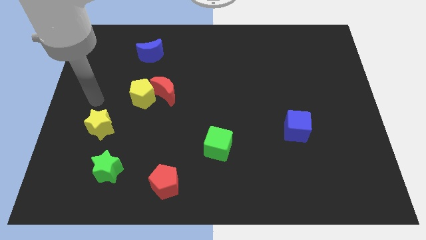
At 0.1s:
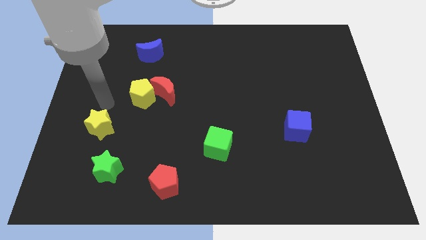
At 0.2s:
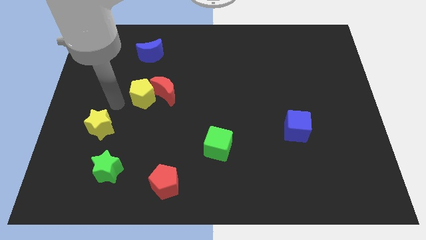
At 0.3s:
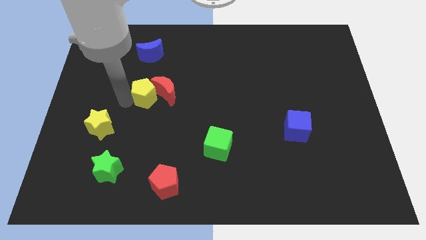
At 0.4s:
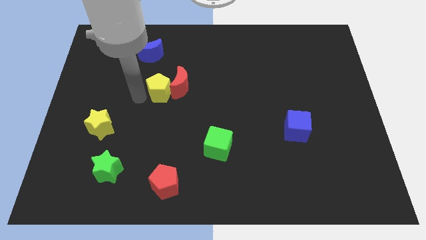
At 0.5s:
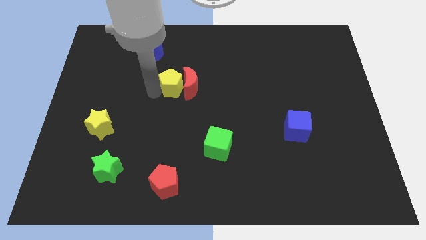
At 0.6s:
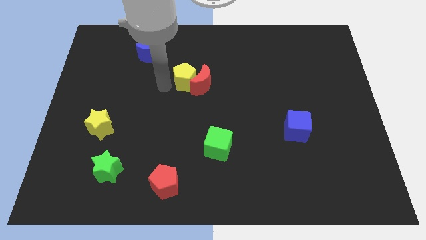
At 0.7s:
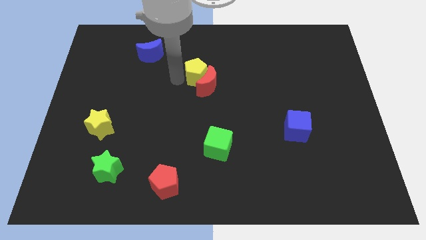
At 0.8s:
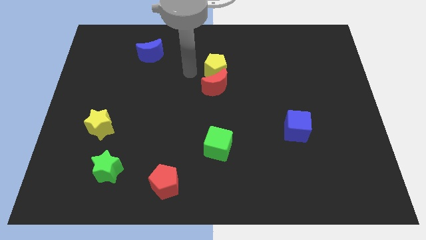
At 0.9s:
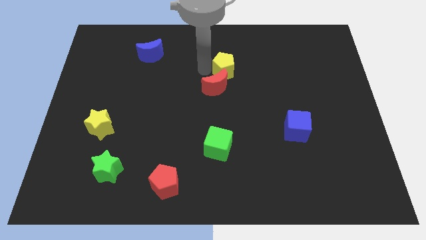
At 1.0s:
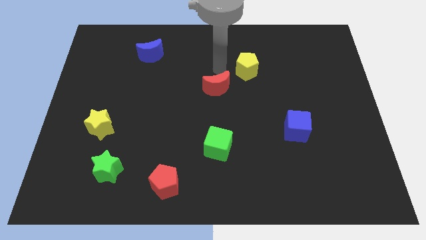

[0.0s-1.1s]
pull the red moon apart from the yellow pentagon

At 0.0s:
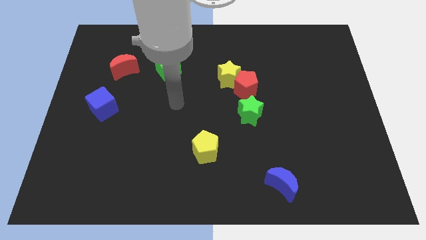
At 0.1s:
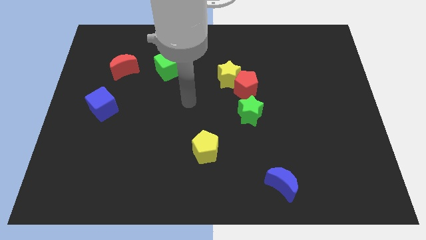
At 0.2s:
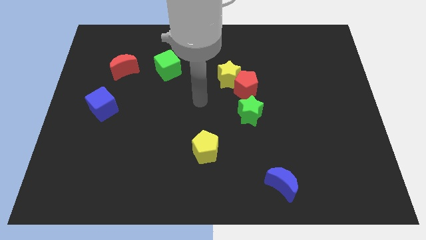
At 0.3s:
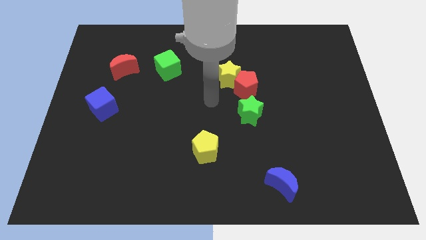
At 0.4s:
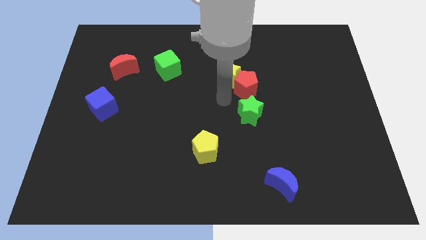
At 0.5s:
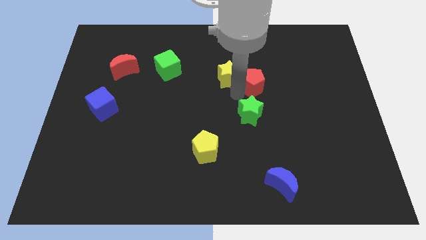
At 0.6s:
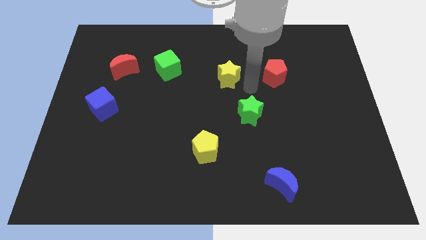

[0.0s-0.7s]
separate the yellow star from the red pentagon

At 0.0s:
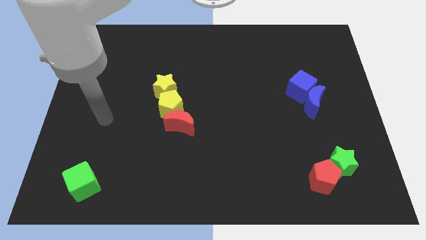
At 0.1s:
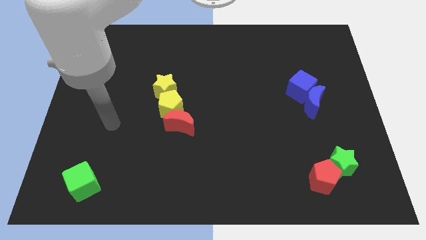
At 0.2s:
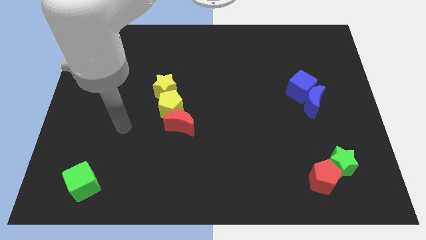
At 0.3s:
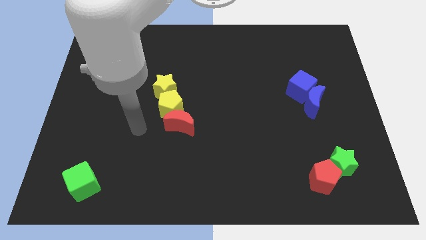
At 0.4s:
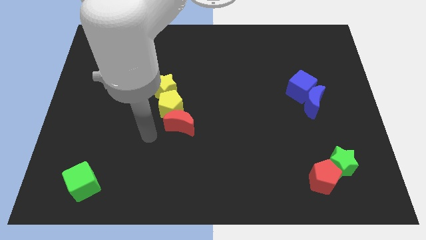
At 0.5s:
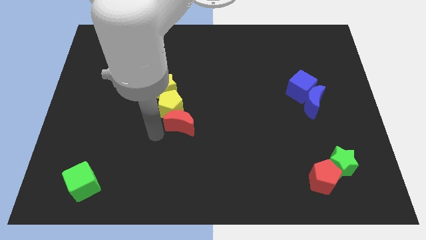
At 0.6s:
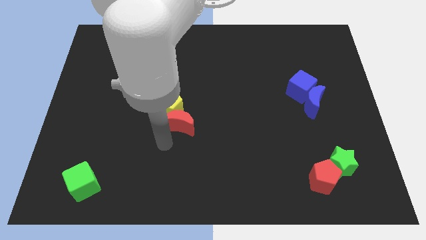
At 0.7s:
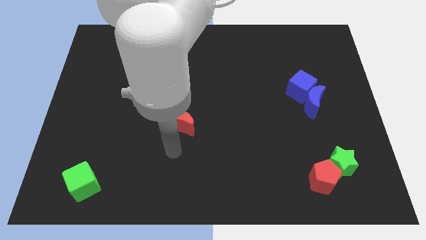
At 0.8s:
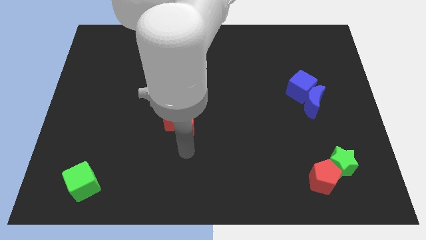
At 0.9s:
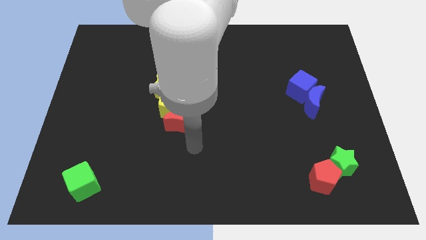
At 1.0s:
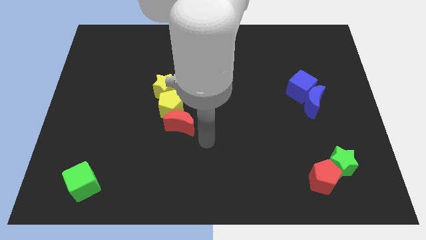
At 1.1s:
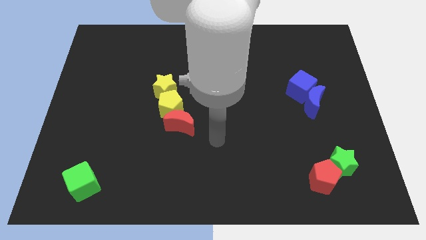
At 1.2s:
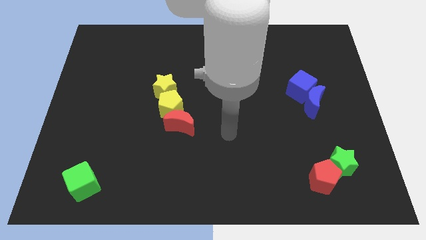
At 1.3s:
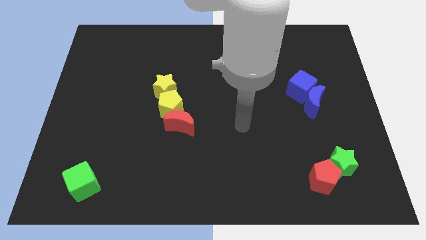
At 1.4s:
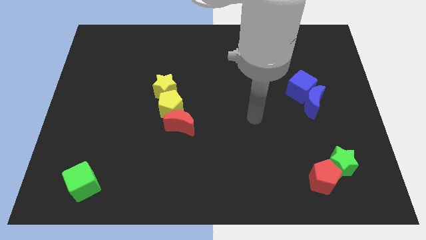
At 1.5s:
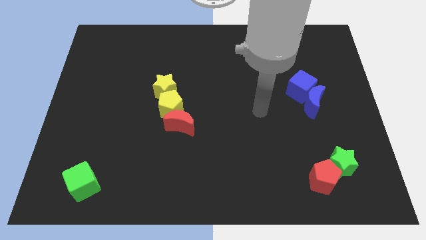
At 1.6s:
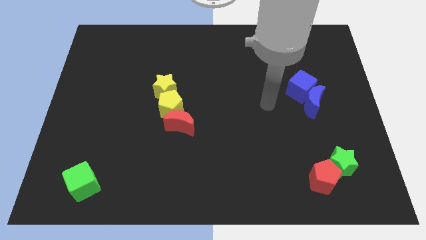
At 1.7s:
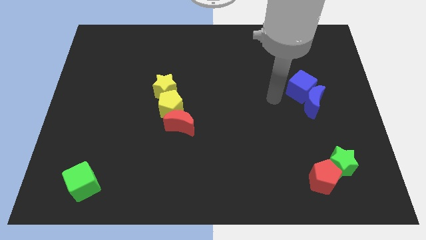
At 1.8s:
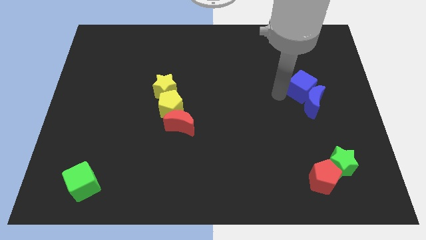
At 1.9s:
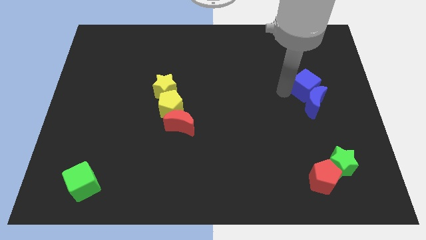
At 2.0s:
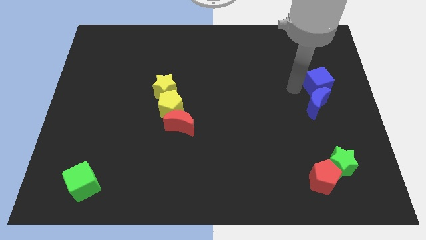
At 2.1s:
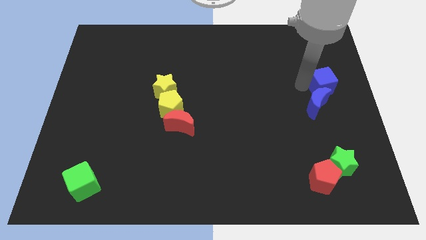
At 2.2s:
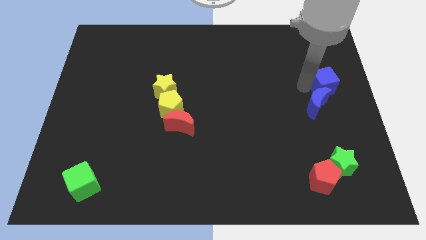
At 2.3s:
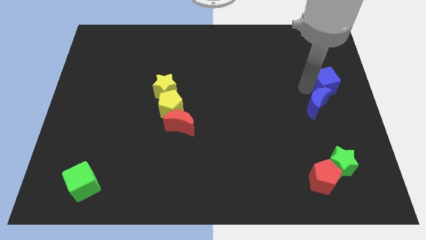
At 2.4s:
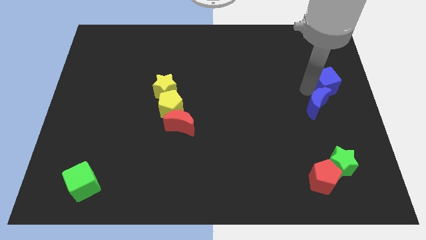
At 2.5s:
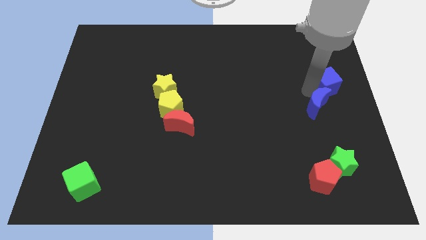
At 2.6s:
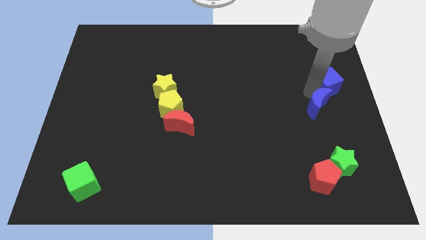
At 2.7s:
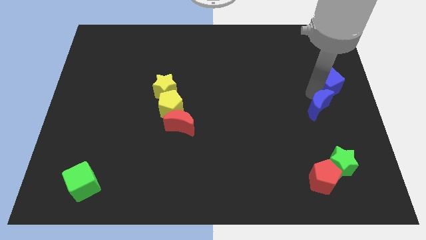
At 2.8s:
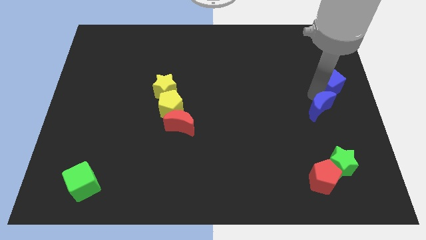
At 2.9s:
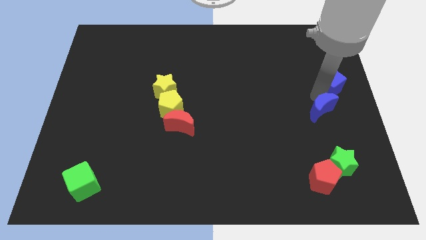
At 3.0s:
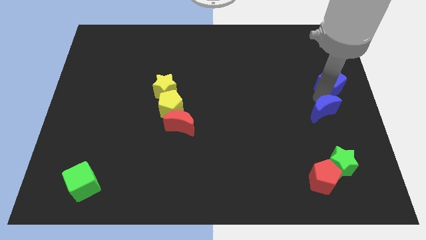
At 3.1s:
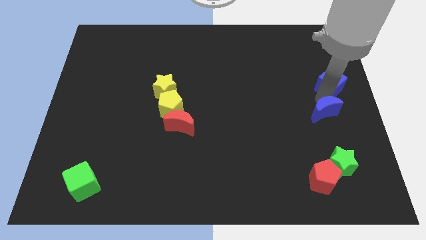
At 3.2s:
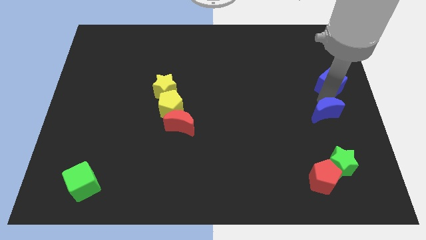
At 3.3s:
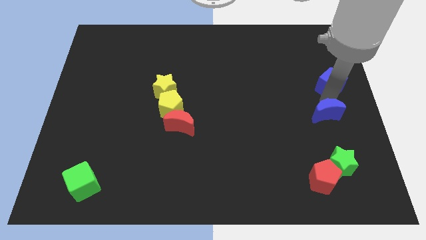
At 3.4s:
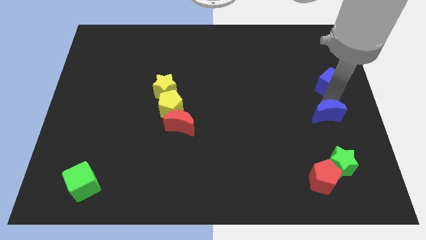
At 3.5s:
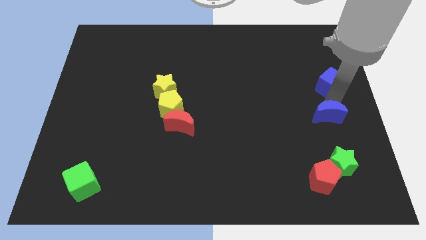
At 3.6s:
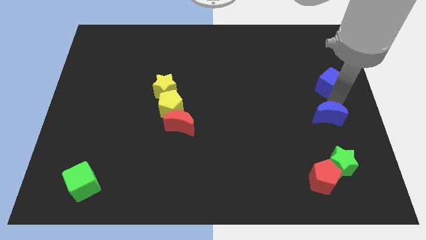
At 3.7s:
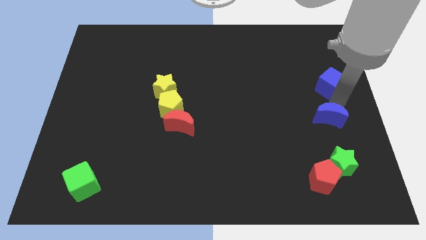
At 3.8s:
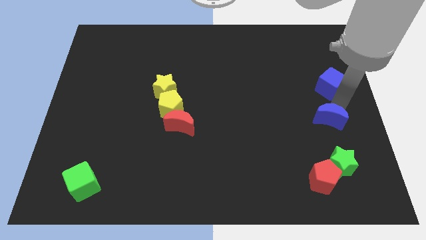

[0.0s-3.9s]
pull the blue moon apart from the blue cube

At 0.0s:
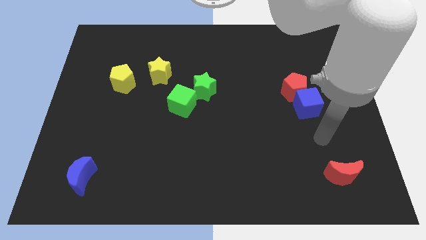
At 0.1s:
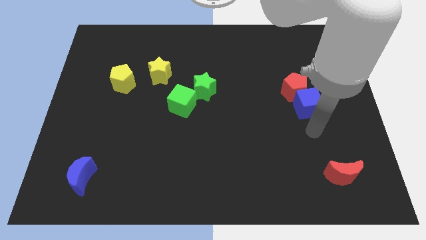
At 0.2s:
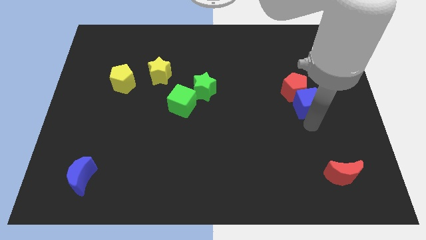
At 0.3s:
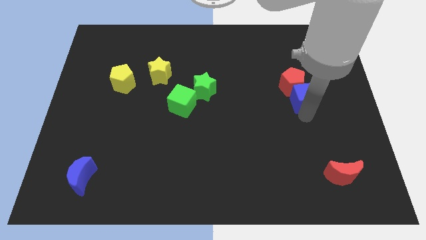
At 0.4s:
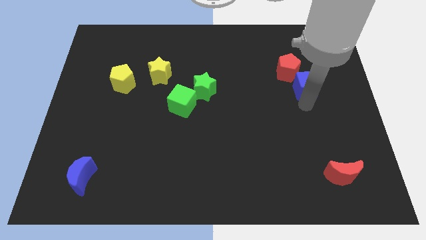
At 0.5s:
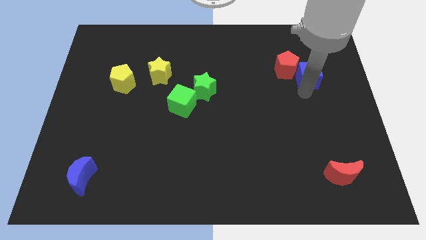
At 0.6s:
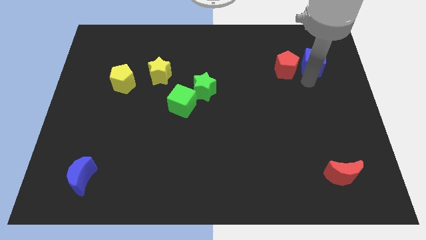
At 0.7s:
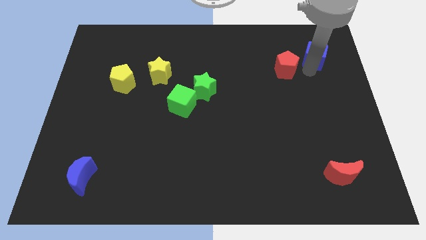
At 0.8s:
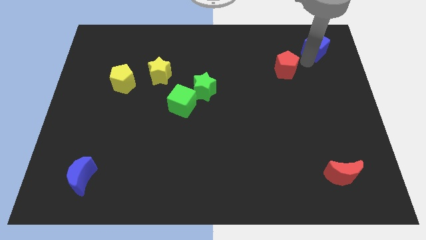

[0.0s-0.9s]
separate the red pentagon from the blue cube

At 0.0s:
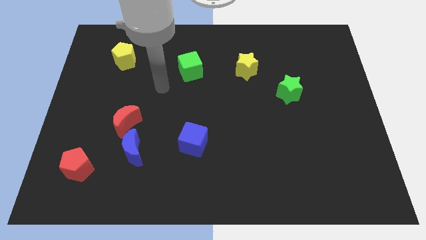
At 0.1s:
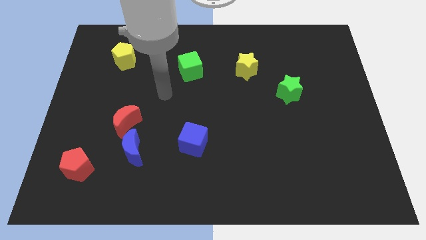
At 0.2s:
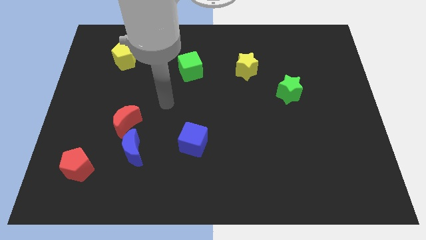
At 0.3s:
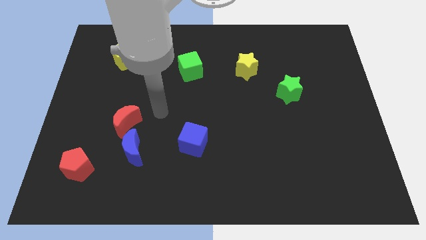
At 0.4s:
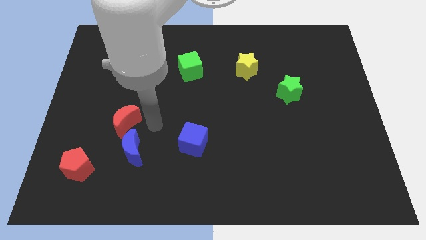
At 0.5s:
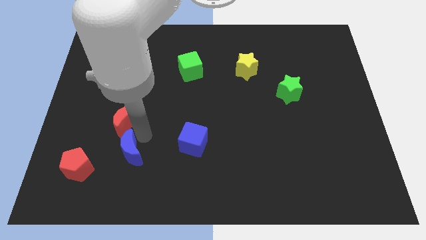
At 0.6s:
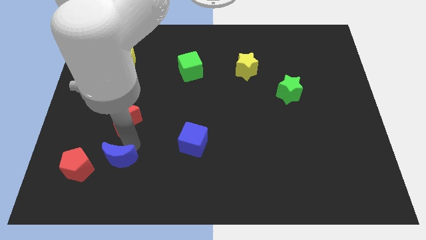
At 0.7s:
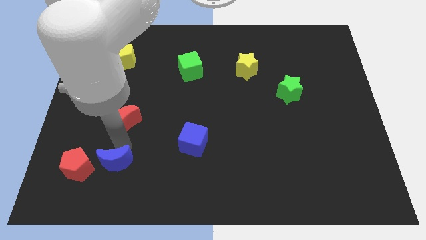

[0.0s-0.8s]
move the red moon away from the blue moon

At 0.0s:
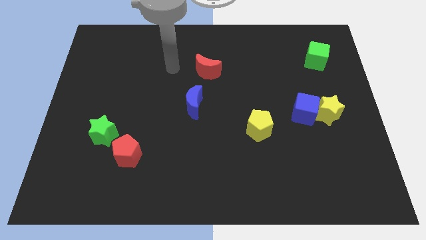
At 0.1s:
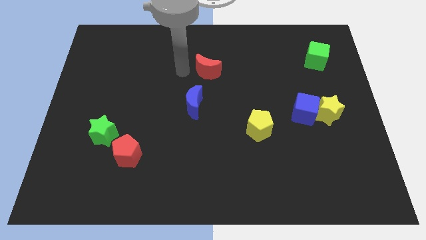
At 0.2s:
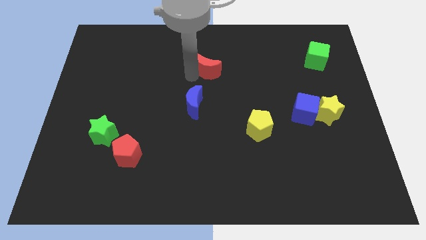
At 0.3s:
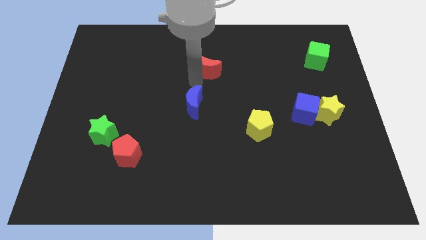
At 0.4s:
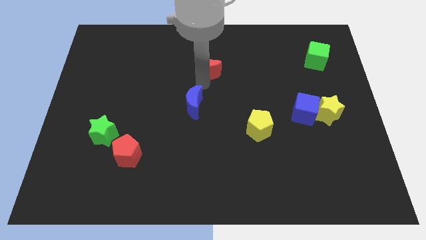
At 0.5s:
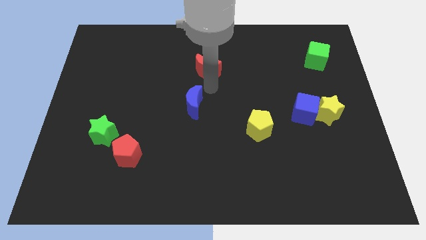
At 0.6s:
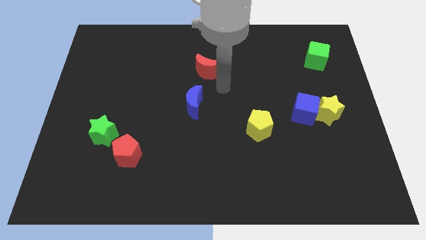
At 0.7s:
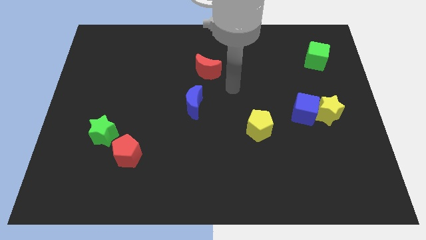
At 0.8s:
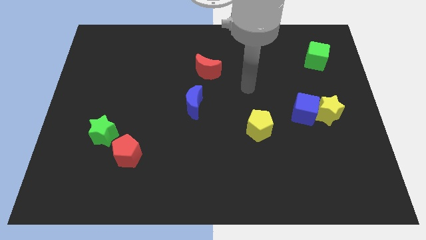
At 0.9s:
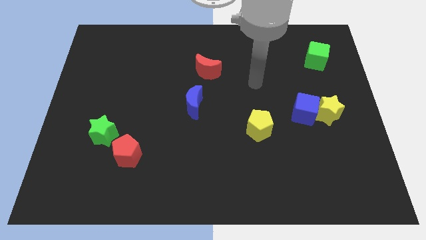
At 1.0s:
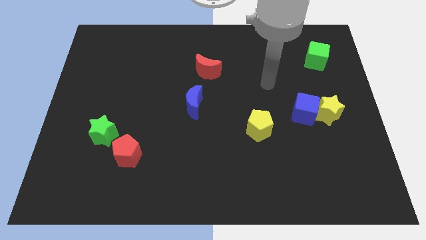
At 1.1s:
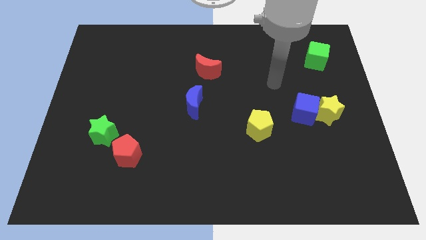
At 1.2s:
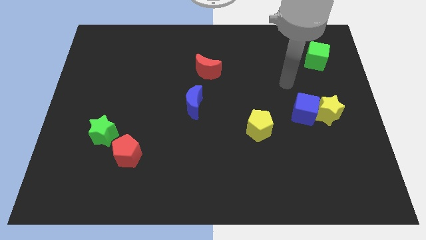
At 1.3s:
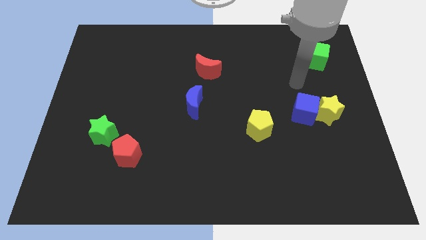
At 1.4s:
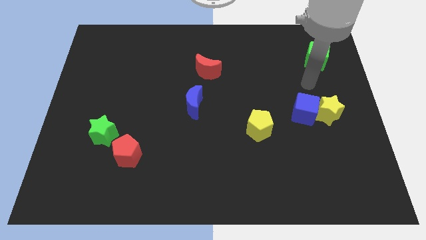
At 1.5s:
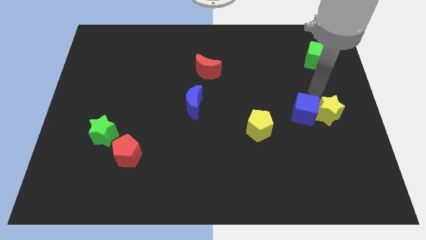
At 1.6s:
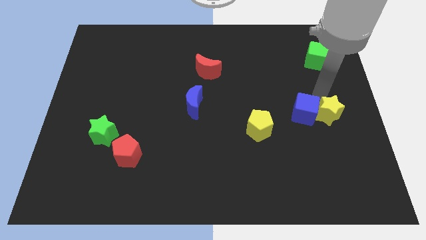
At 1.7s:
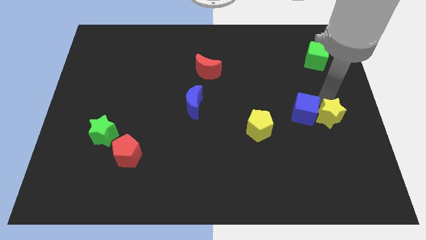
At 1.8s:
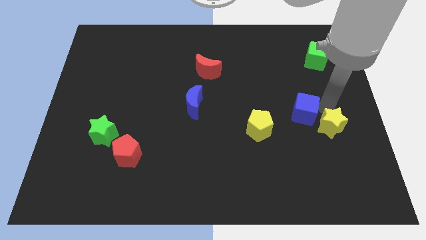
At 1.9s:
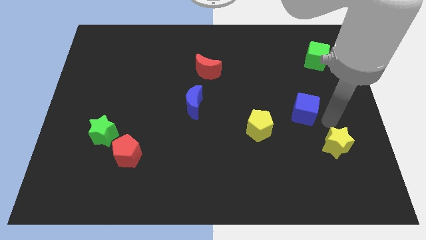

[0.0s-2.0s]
separate the blue cube from the yellow star

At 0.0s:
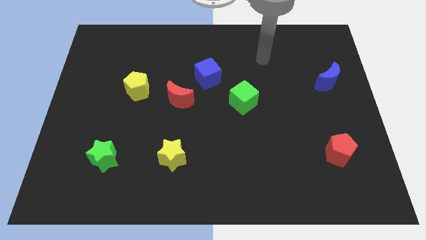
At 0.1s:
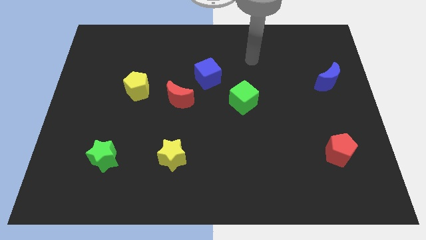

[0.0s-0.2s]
move the red moon away from the blue cube
